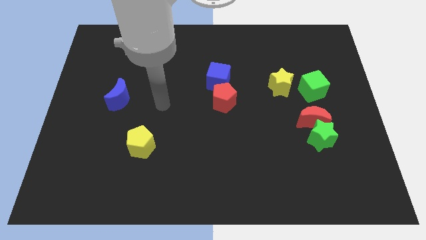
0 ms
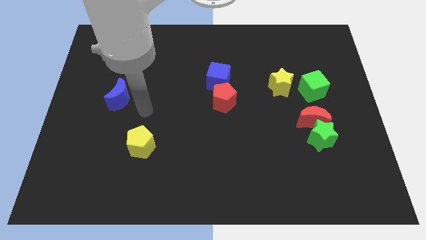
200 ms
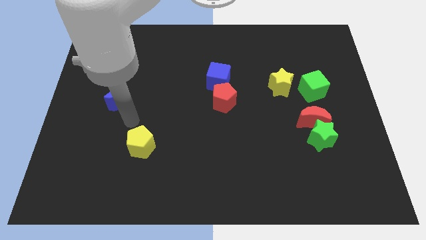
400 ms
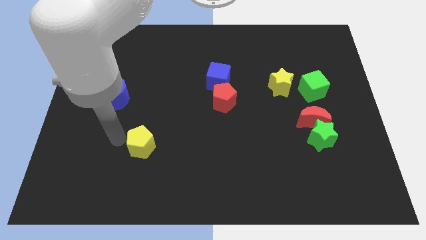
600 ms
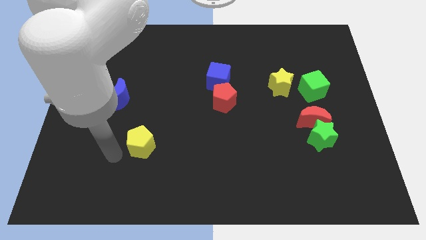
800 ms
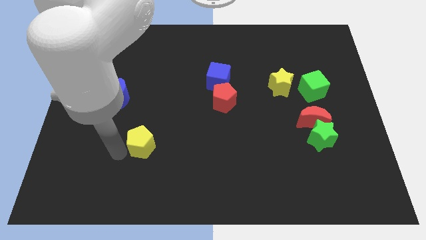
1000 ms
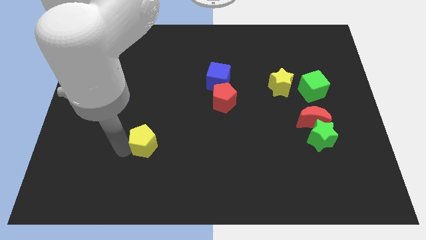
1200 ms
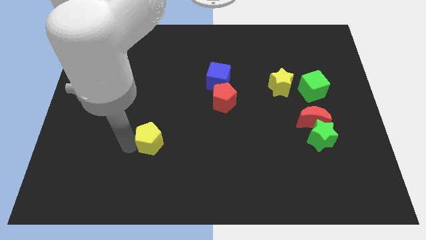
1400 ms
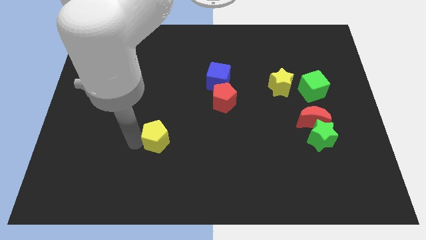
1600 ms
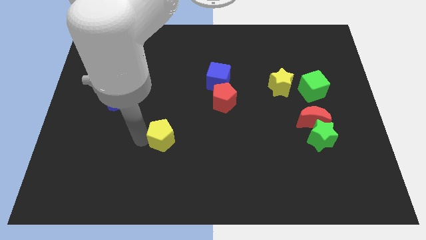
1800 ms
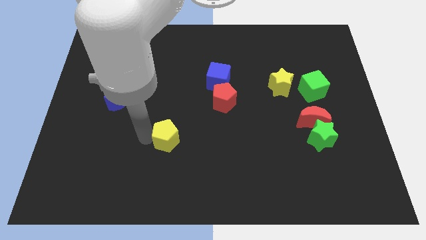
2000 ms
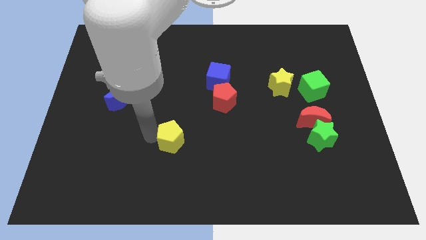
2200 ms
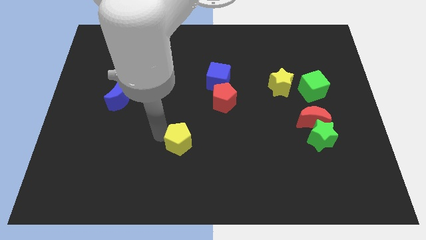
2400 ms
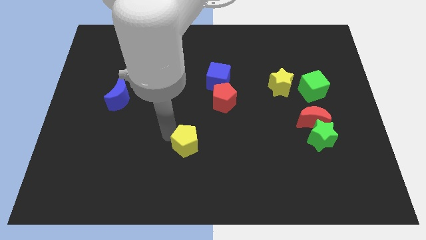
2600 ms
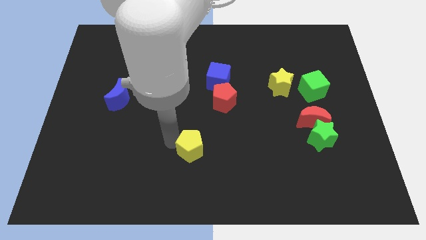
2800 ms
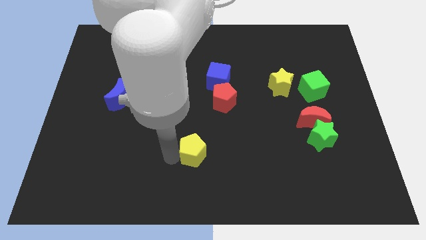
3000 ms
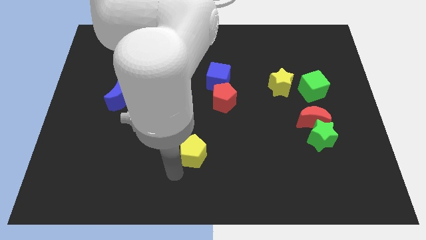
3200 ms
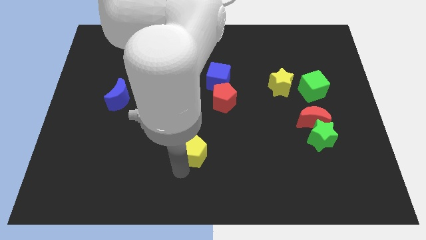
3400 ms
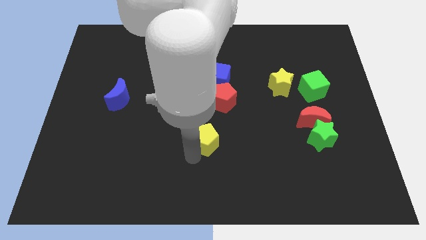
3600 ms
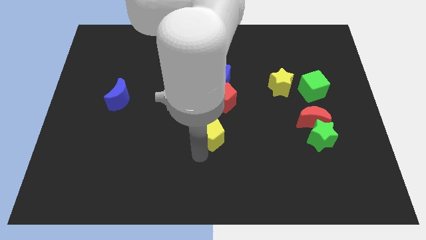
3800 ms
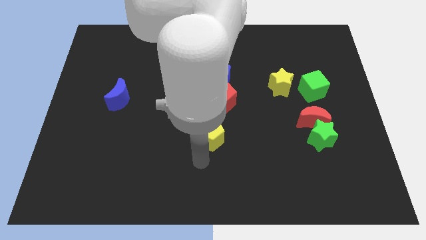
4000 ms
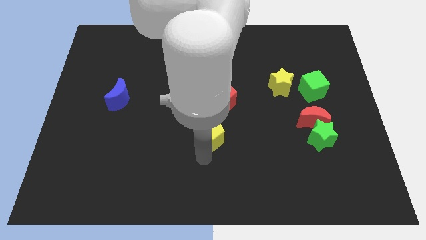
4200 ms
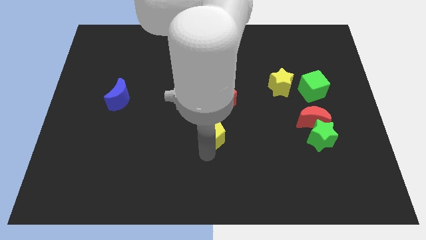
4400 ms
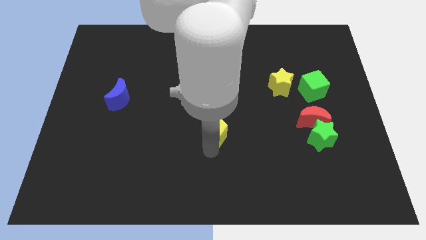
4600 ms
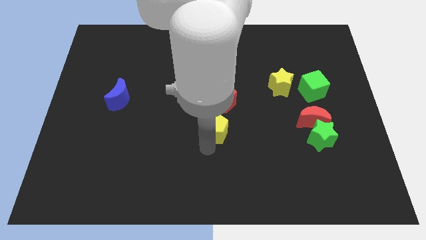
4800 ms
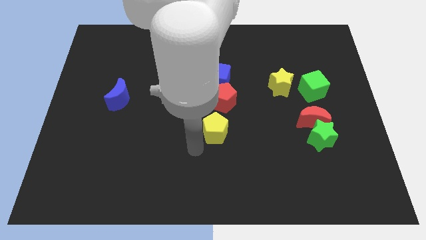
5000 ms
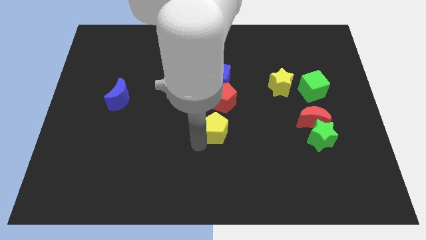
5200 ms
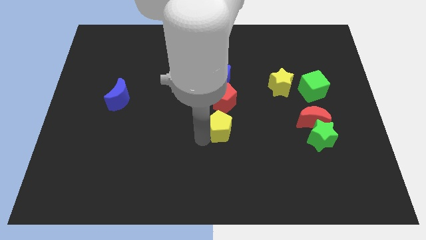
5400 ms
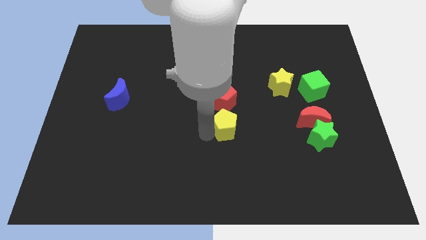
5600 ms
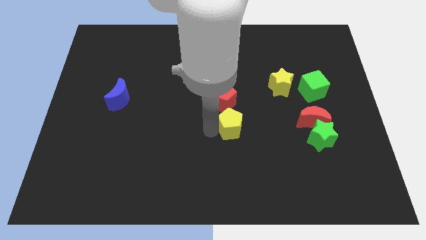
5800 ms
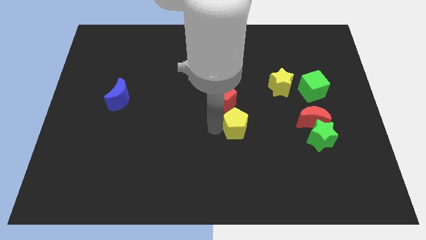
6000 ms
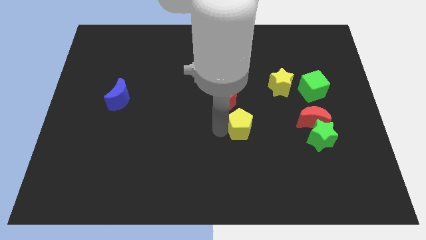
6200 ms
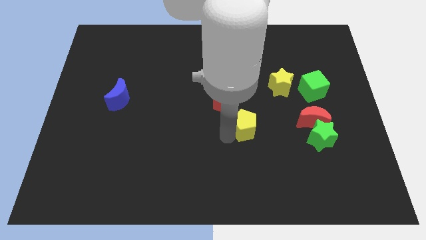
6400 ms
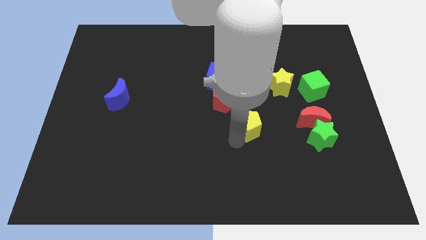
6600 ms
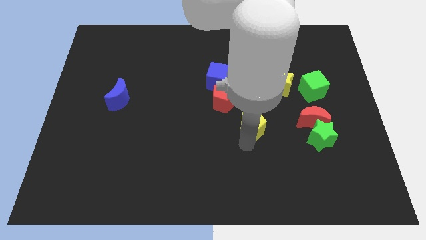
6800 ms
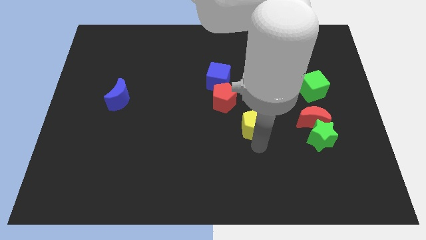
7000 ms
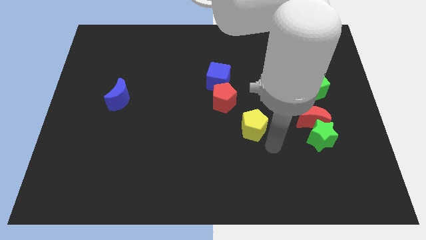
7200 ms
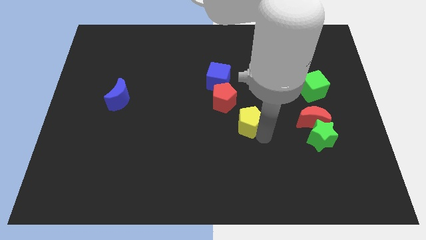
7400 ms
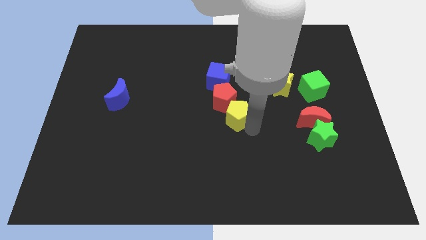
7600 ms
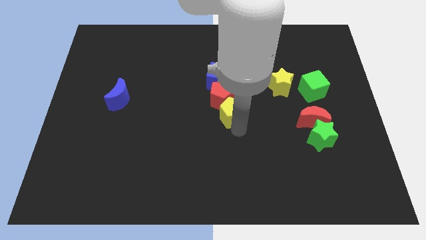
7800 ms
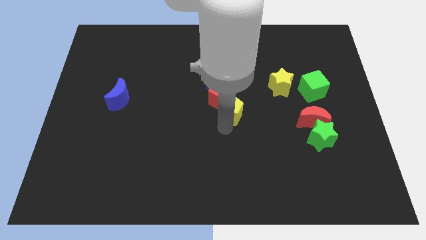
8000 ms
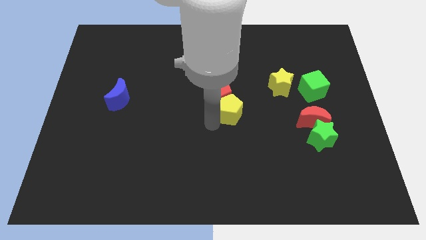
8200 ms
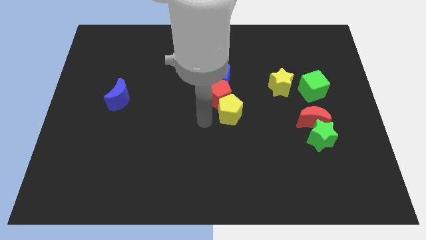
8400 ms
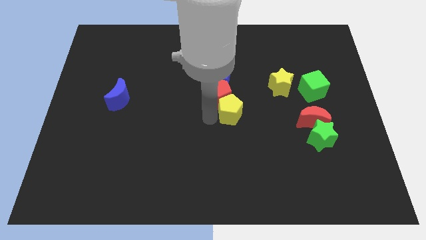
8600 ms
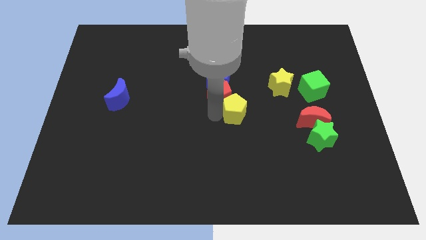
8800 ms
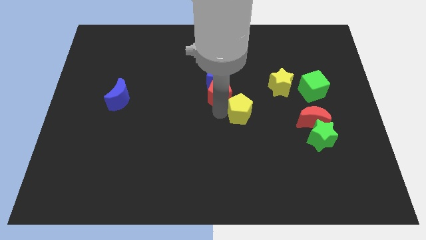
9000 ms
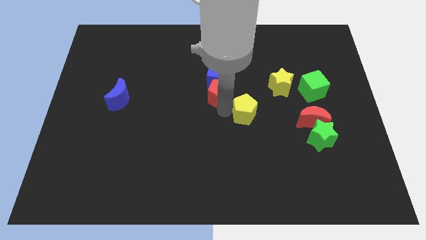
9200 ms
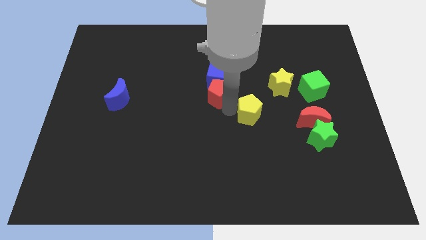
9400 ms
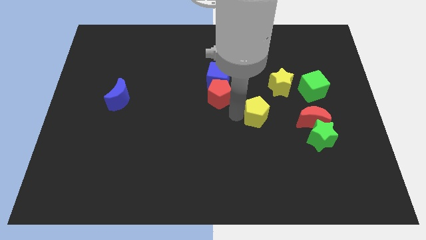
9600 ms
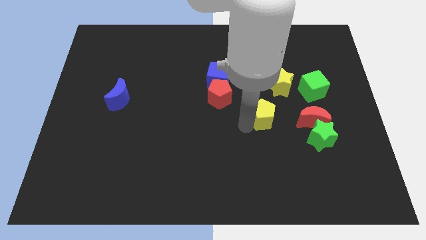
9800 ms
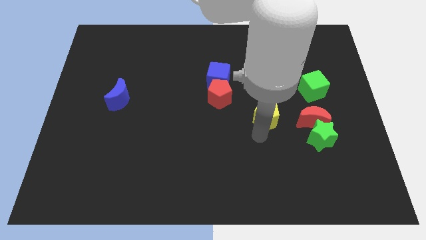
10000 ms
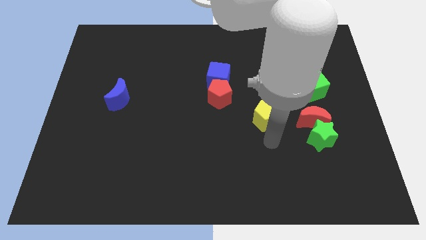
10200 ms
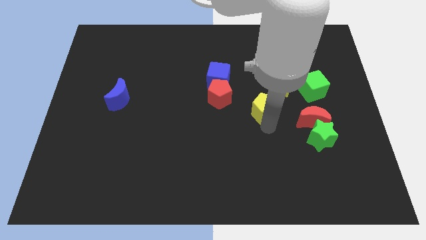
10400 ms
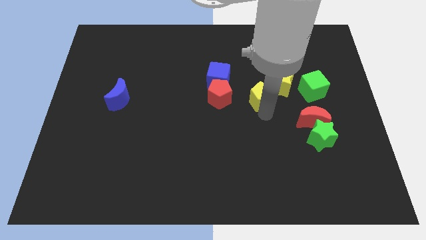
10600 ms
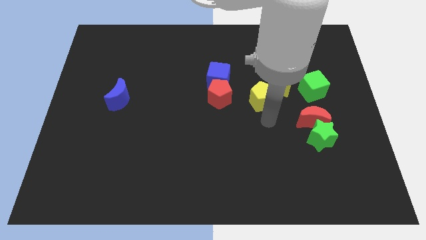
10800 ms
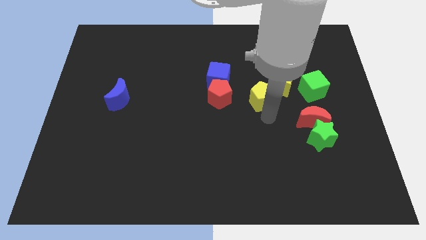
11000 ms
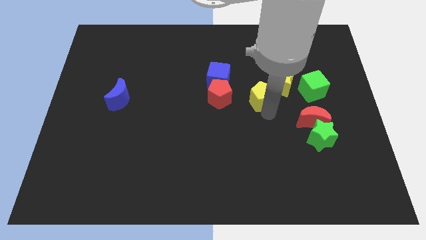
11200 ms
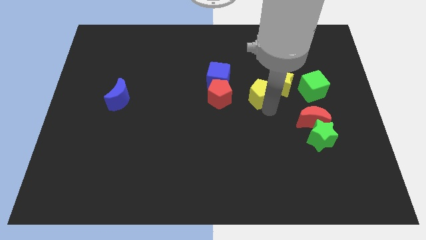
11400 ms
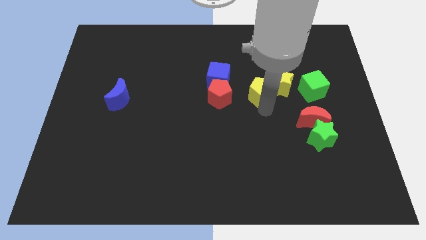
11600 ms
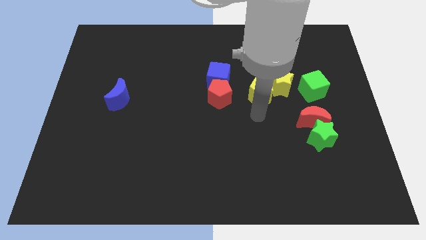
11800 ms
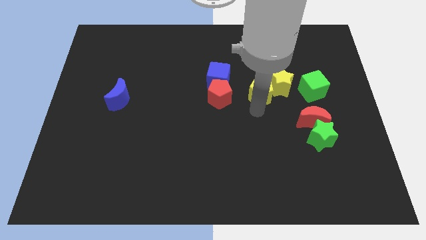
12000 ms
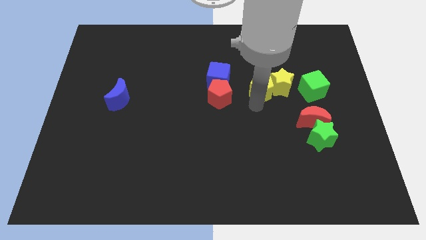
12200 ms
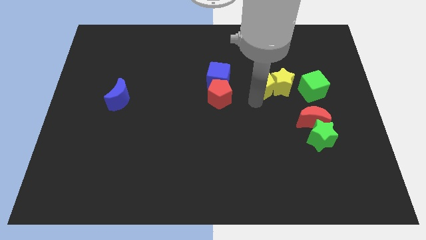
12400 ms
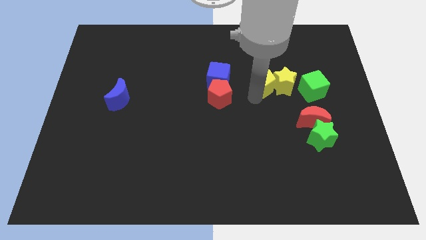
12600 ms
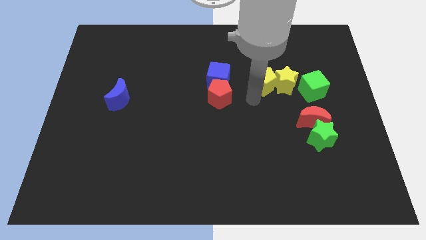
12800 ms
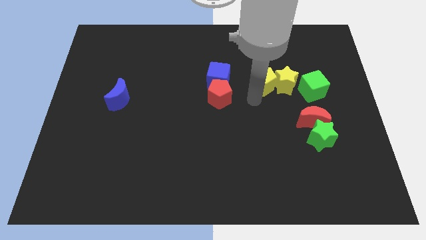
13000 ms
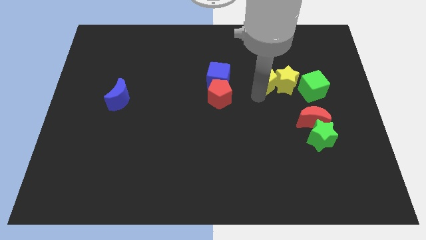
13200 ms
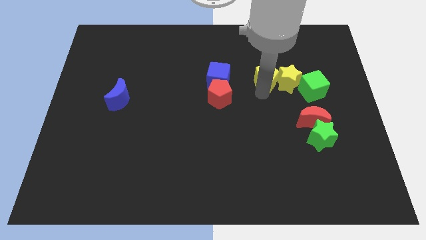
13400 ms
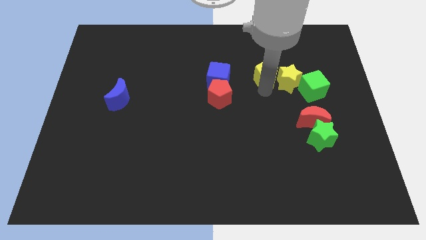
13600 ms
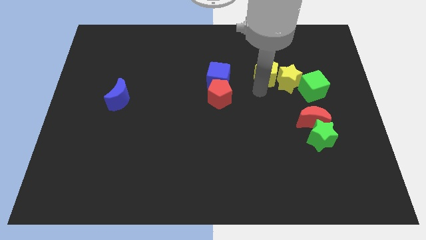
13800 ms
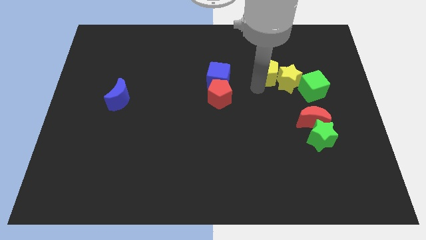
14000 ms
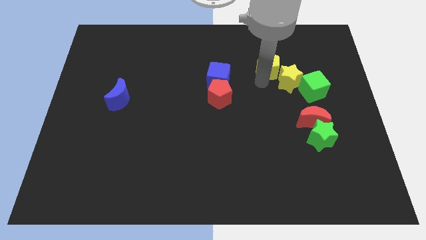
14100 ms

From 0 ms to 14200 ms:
move the yellow pentagon above the yellow star
